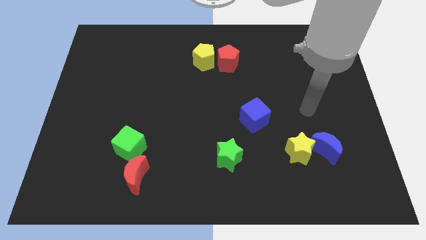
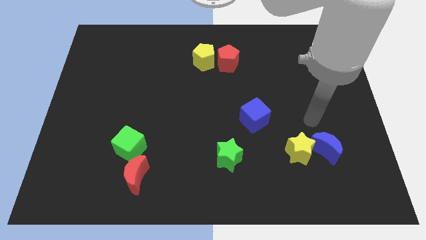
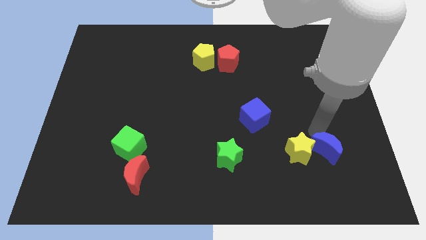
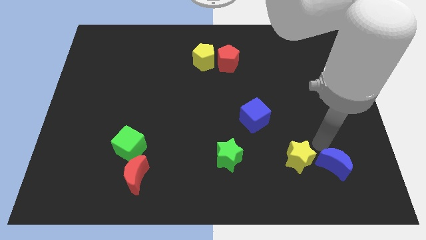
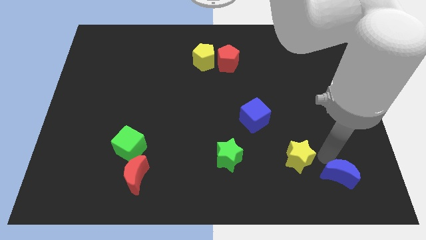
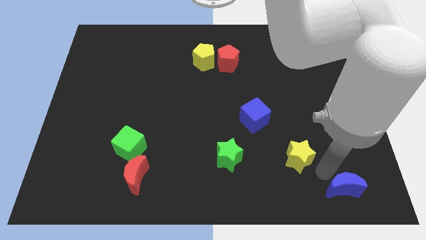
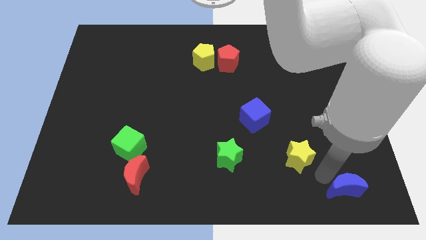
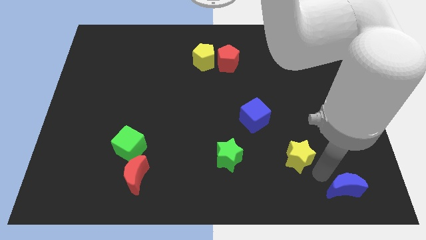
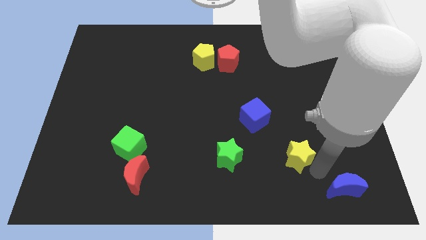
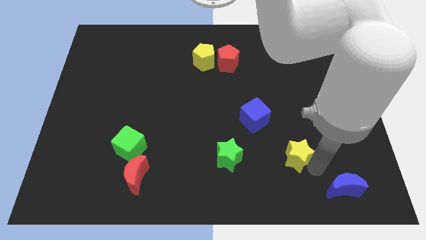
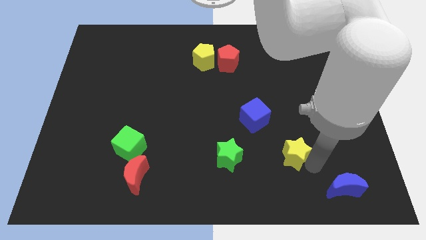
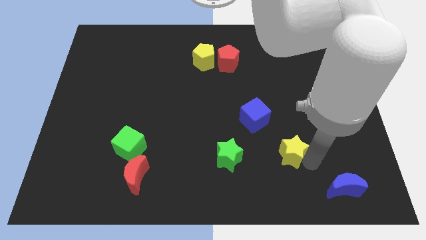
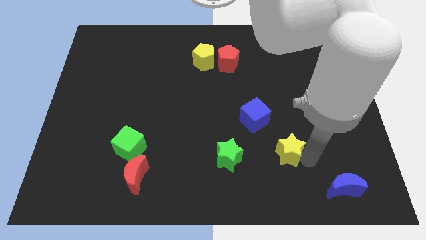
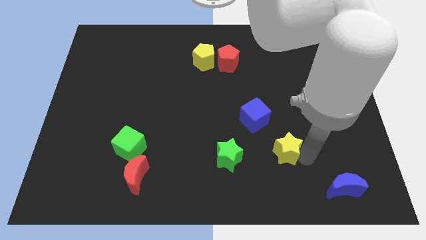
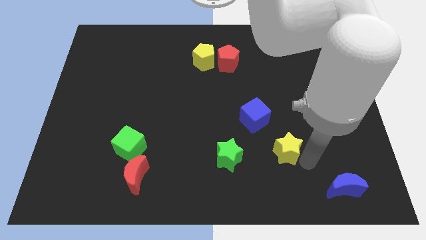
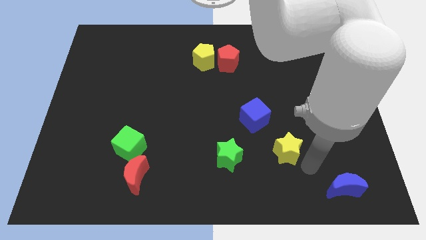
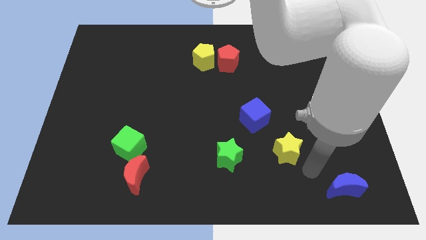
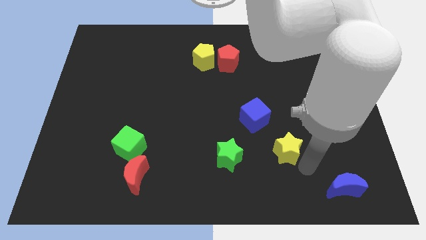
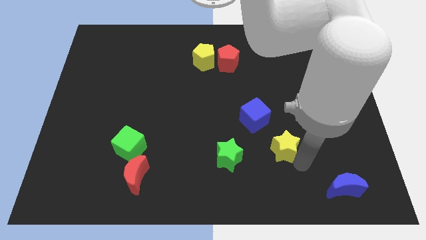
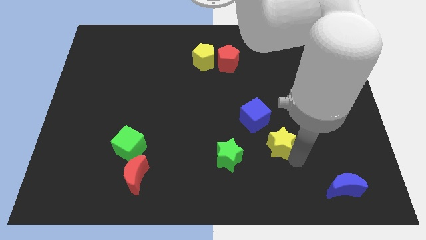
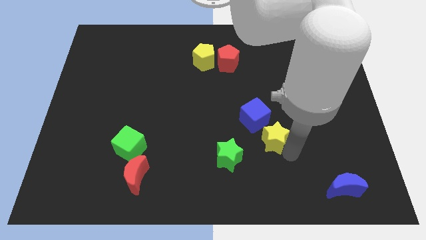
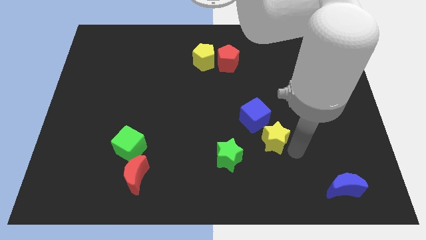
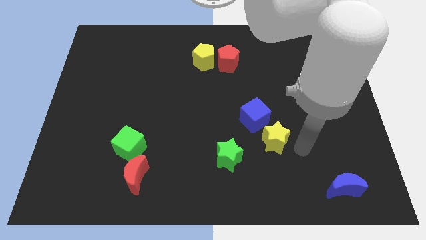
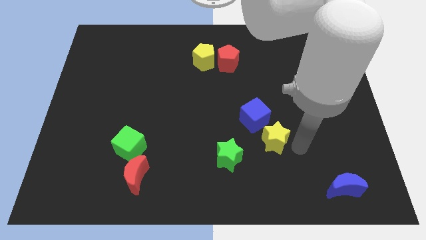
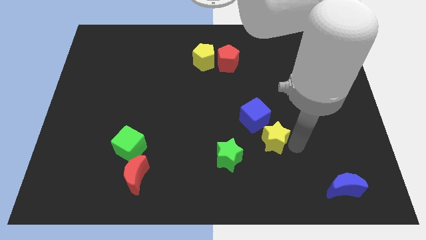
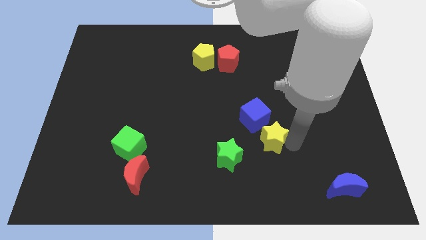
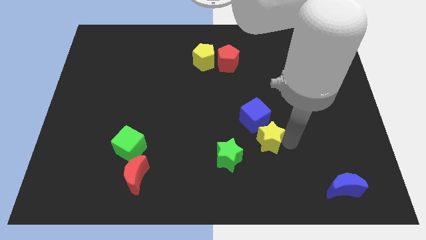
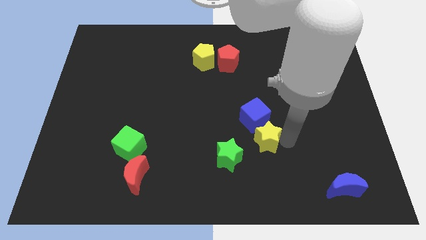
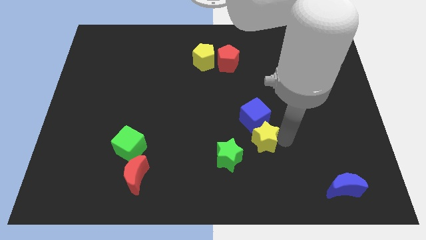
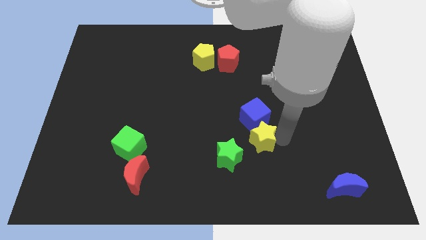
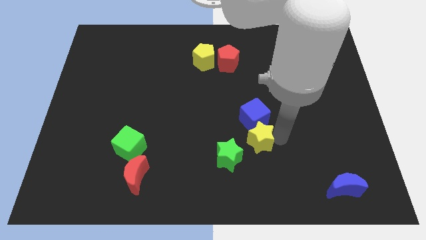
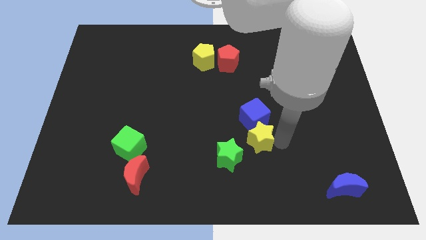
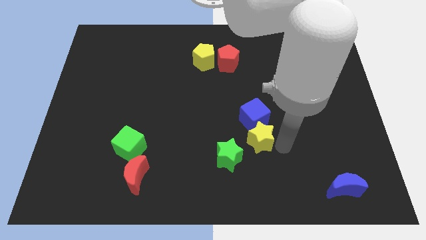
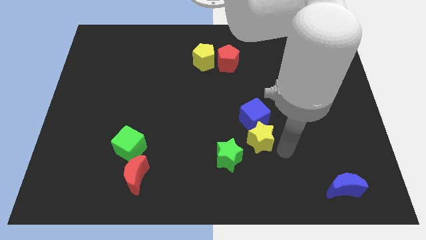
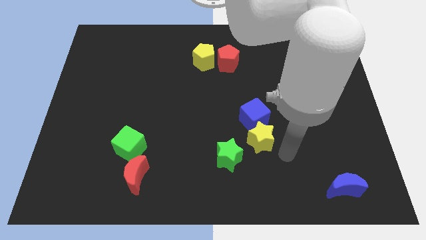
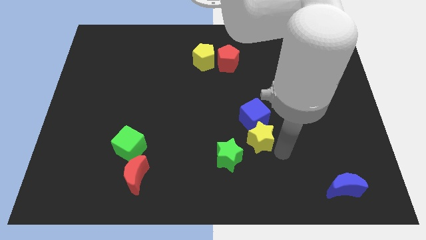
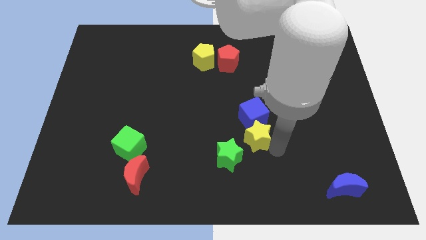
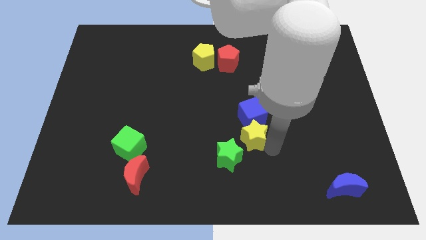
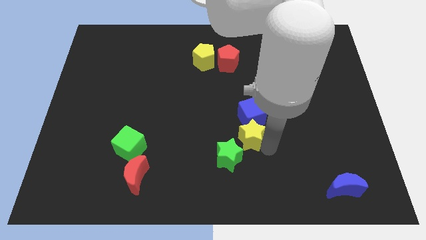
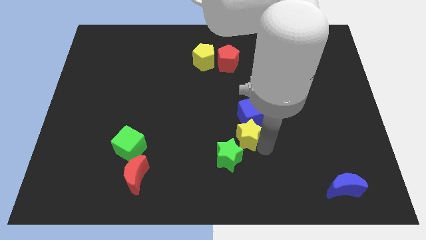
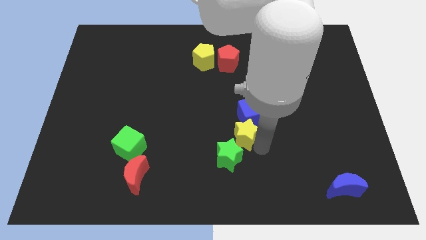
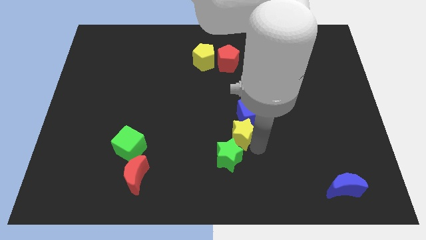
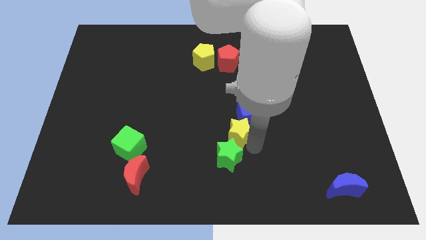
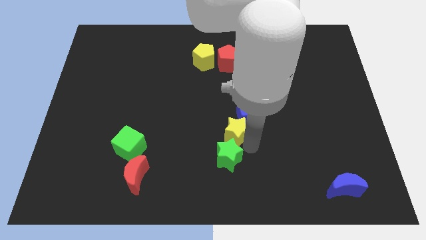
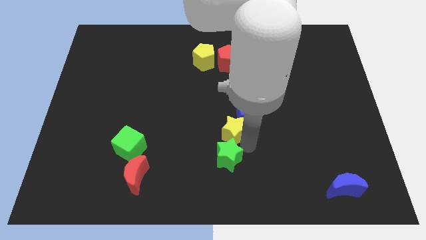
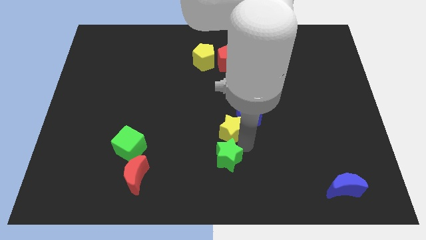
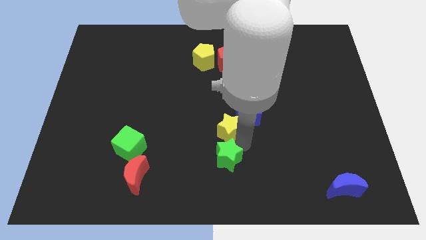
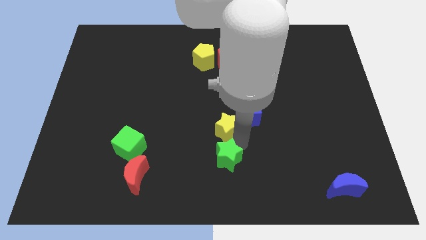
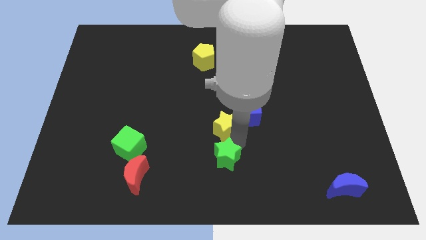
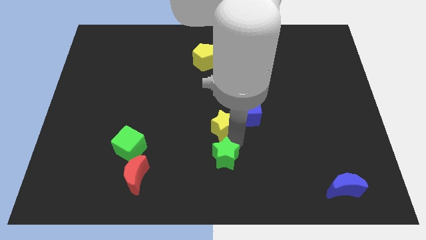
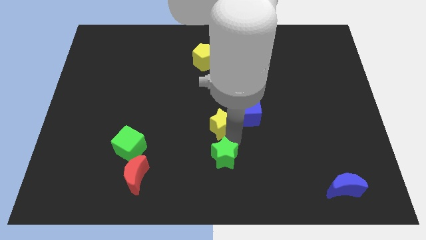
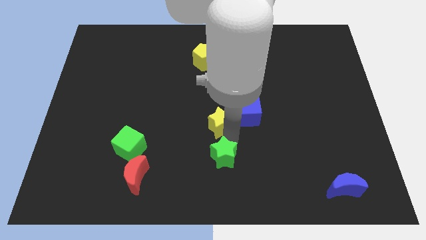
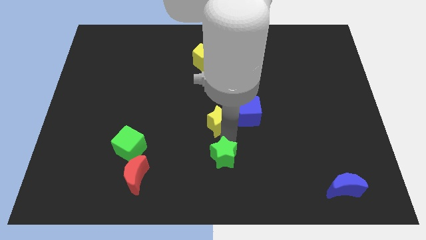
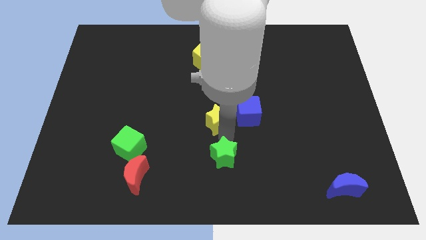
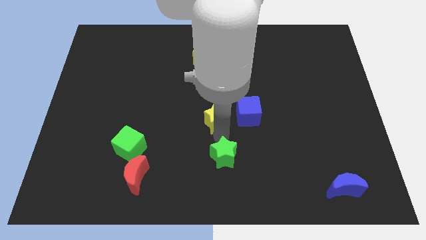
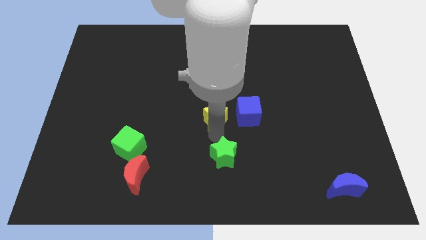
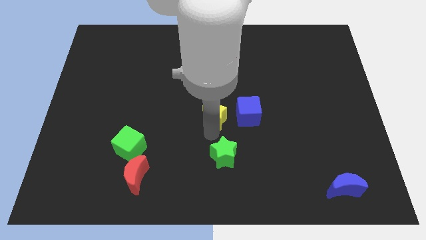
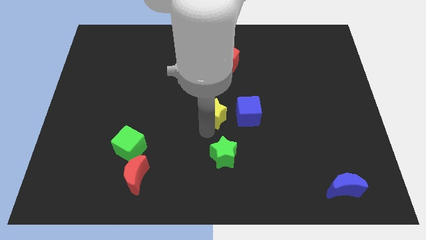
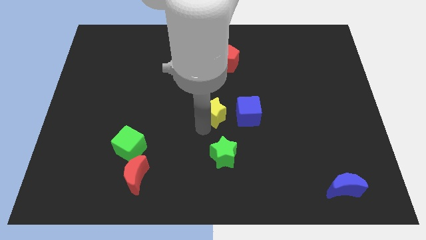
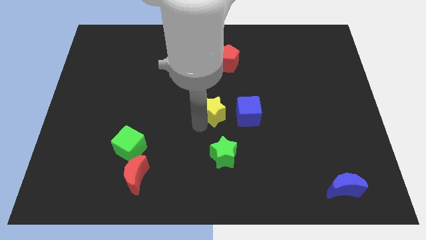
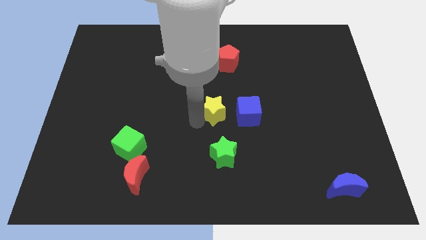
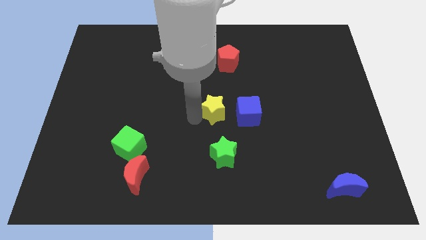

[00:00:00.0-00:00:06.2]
put the yellow star to the top left side of the blue cube

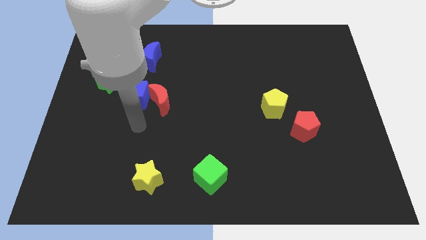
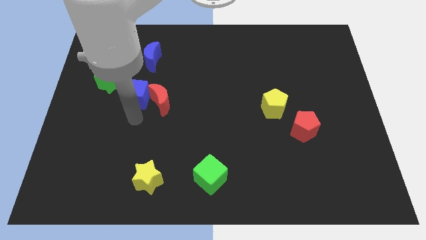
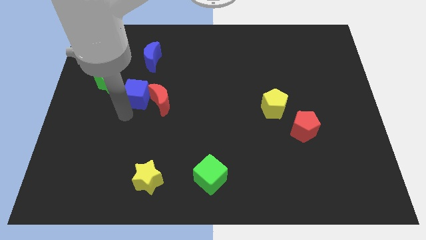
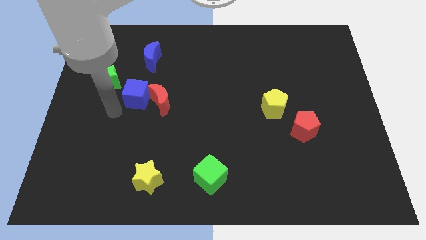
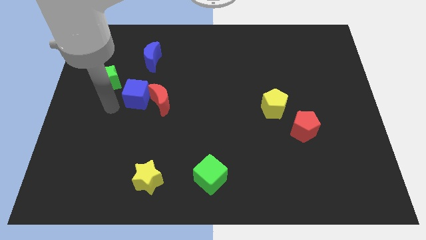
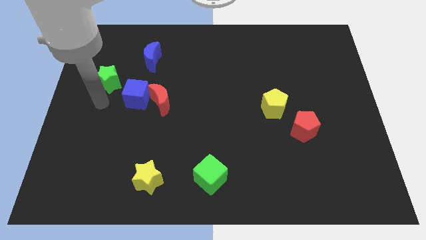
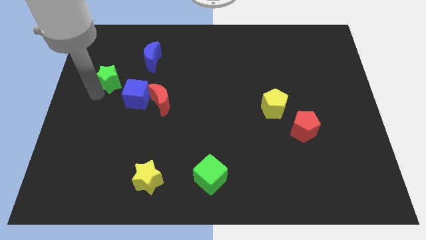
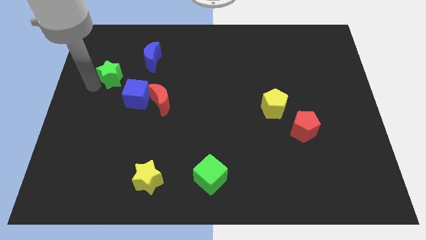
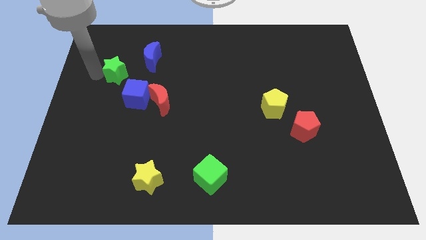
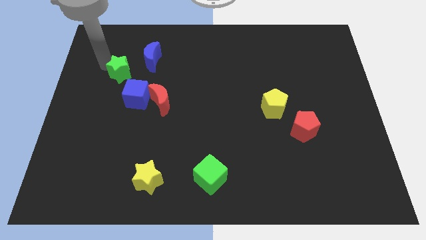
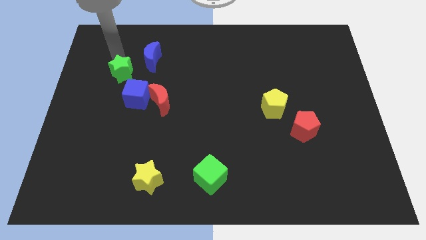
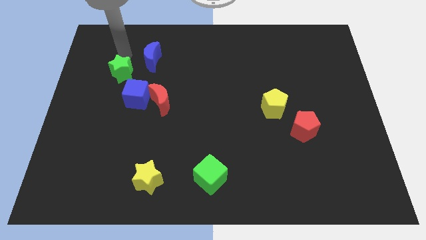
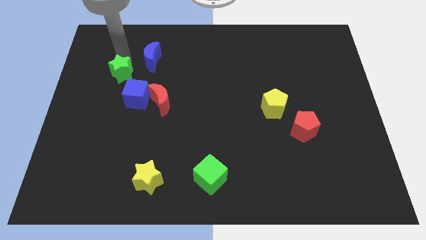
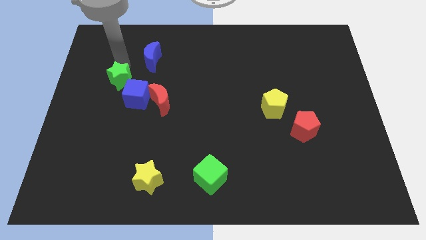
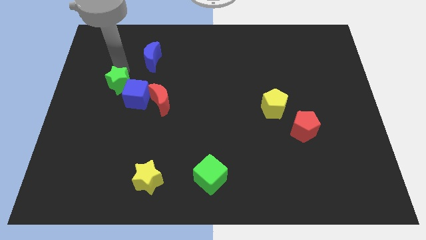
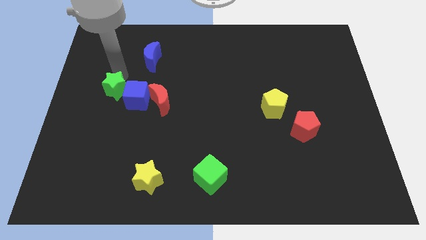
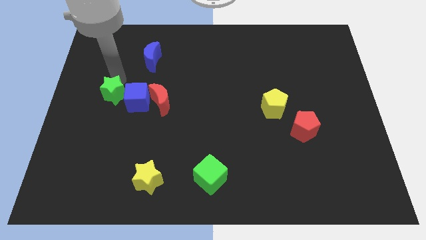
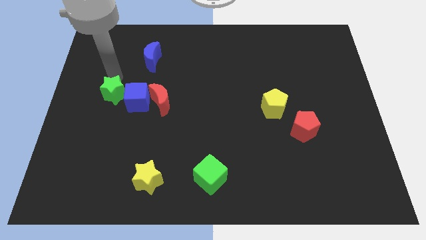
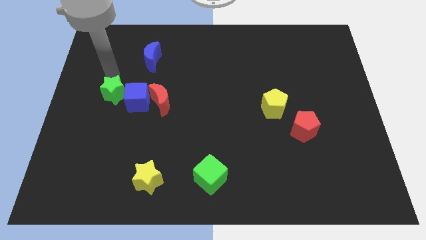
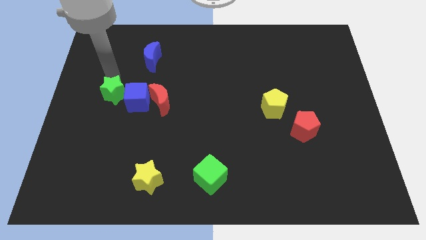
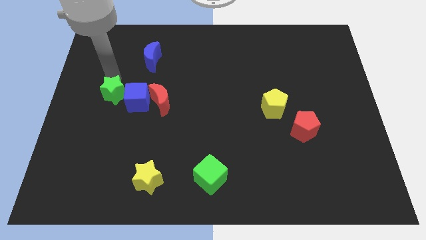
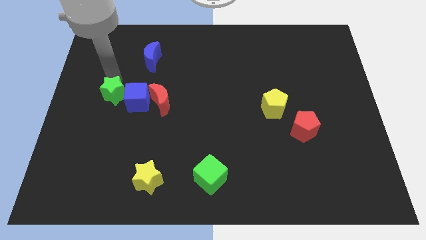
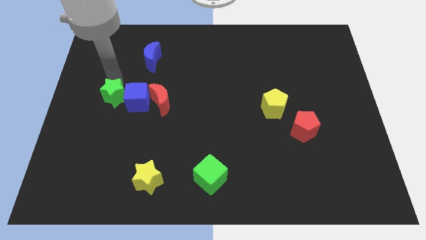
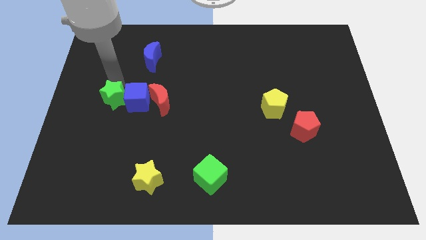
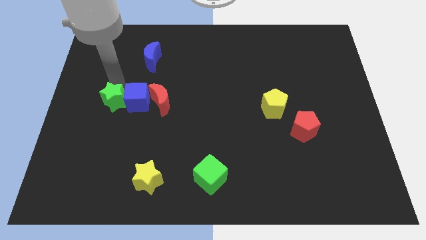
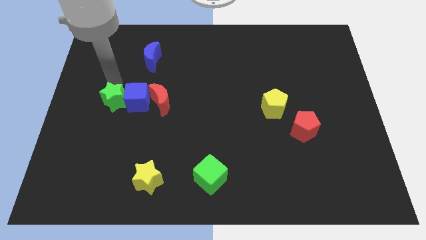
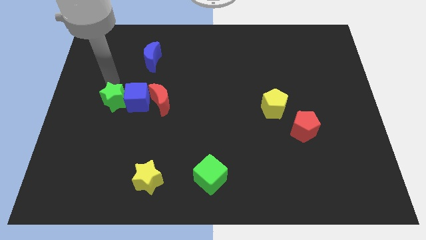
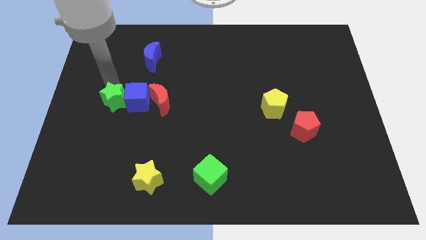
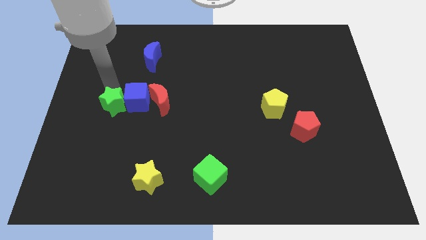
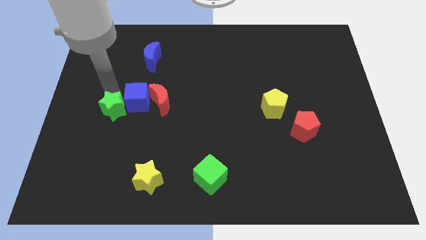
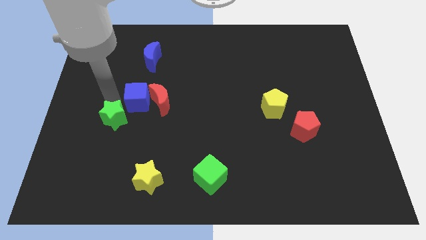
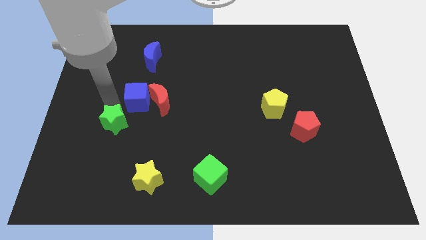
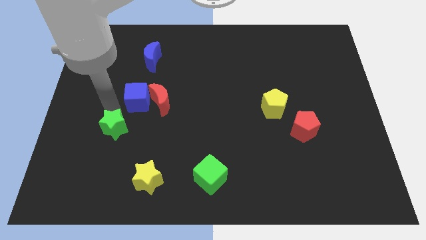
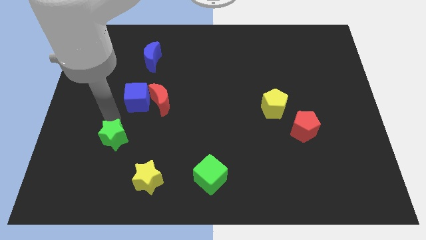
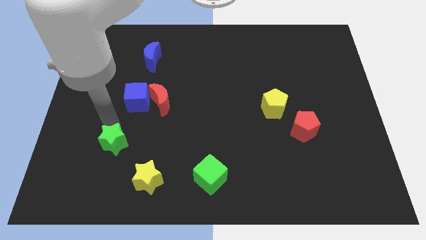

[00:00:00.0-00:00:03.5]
move the green star diagonally up and to the left of the yellow star
